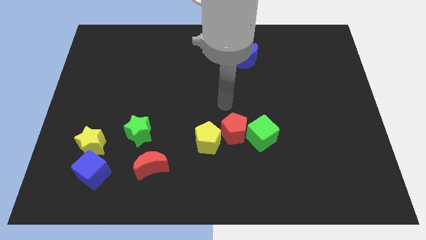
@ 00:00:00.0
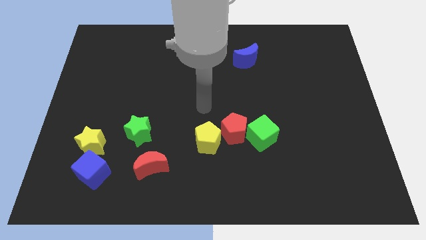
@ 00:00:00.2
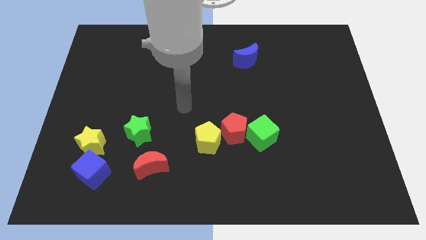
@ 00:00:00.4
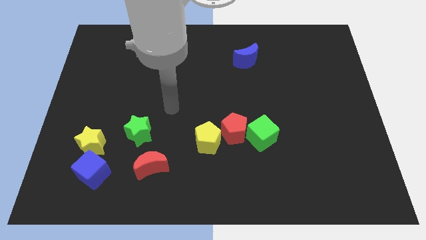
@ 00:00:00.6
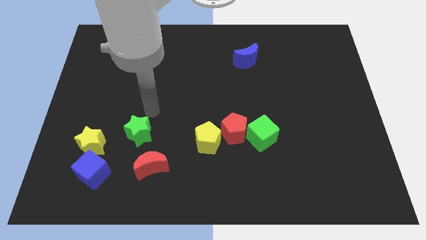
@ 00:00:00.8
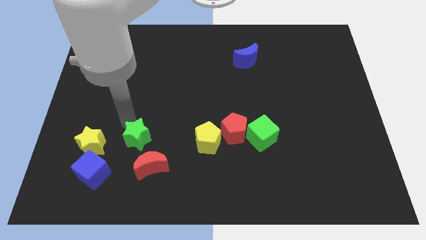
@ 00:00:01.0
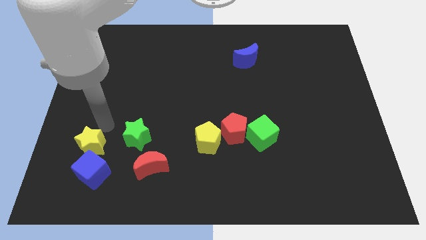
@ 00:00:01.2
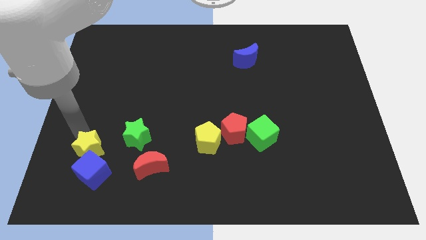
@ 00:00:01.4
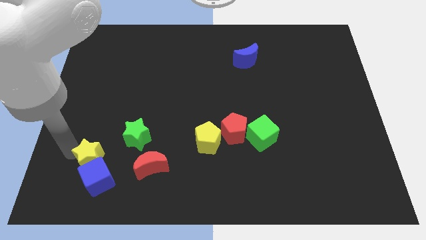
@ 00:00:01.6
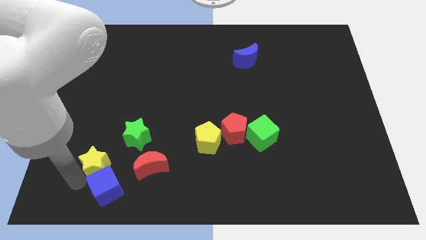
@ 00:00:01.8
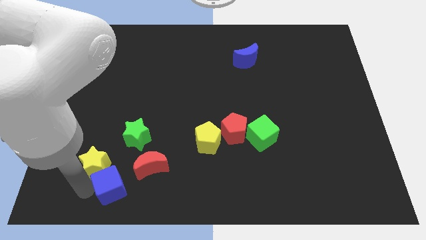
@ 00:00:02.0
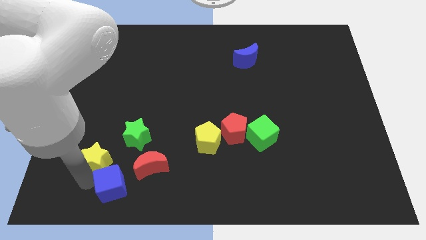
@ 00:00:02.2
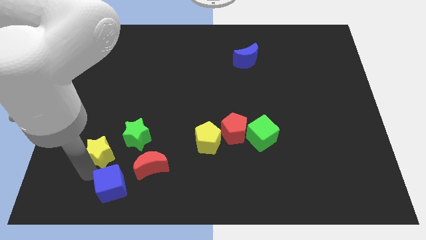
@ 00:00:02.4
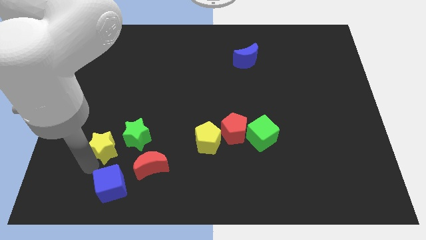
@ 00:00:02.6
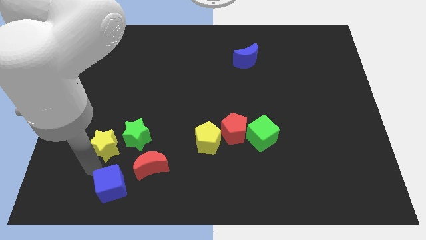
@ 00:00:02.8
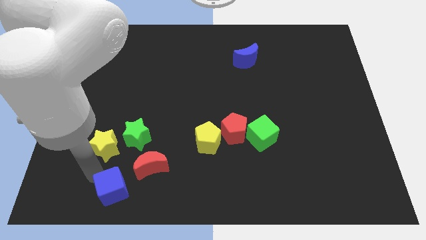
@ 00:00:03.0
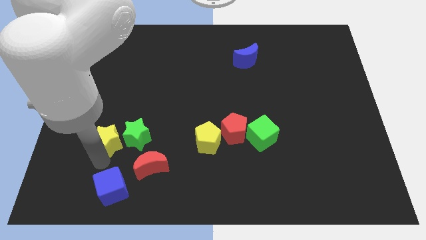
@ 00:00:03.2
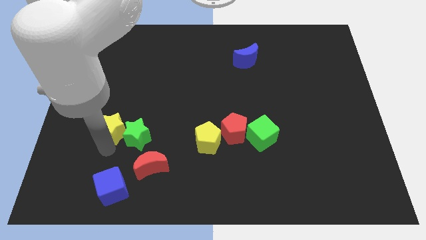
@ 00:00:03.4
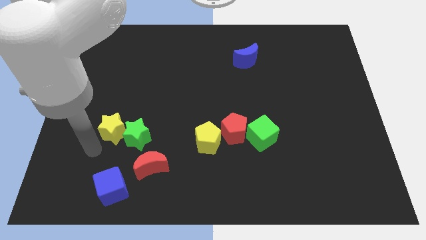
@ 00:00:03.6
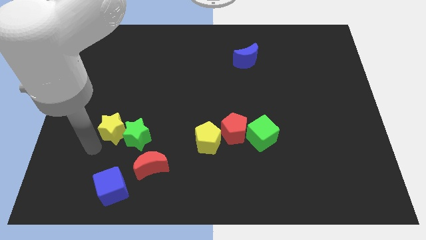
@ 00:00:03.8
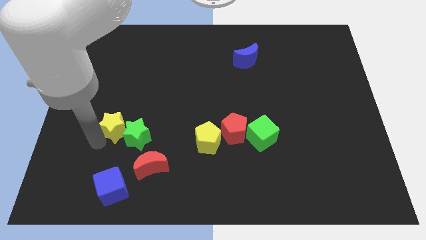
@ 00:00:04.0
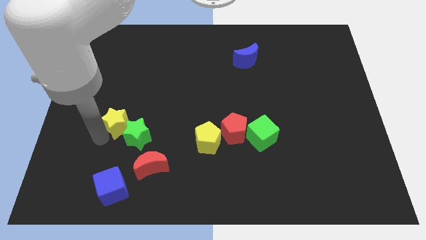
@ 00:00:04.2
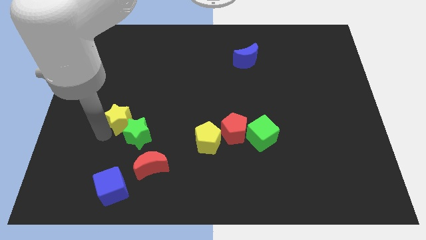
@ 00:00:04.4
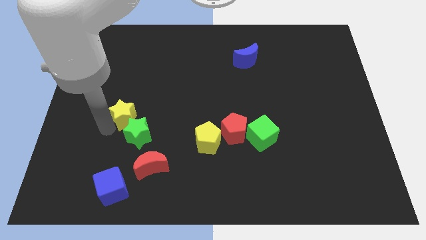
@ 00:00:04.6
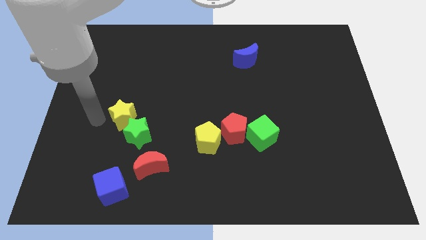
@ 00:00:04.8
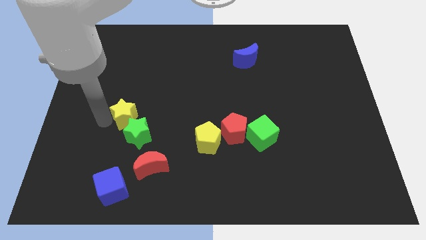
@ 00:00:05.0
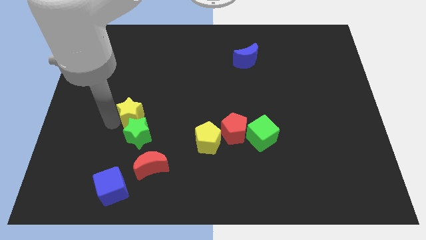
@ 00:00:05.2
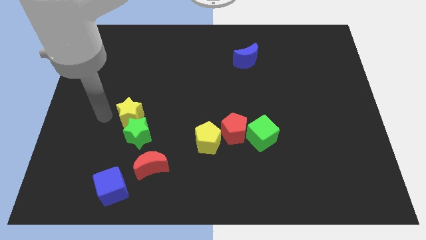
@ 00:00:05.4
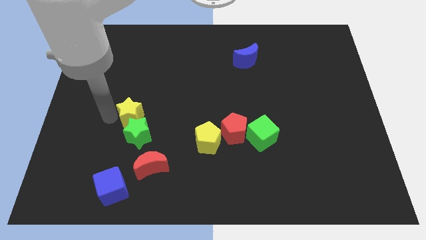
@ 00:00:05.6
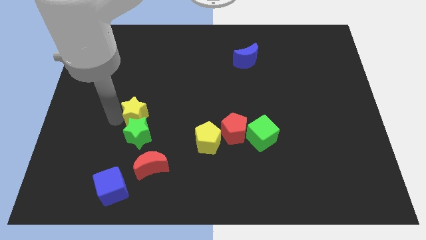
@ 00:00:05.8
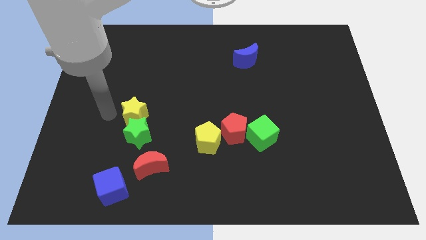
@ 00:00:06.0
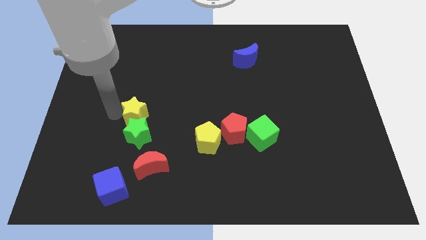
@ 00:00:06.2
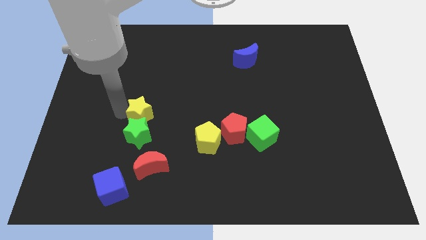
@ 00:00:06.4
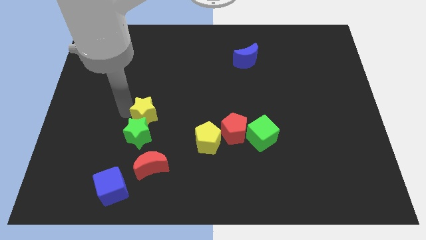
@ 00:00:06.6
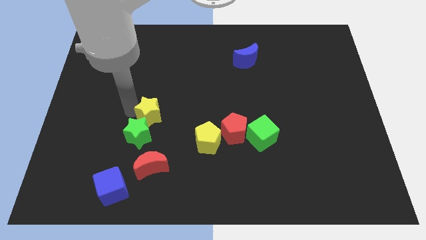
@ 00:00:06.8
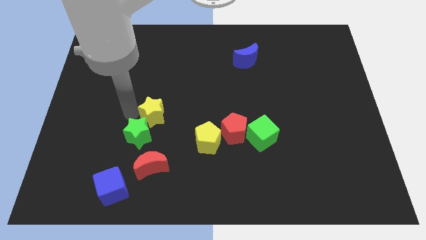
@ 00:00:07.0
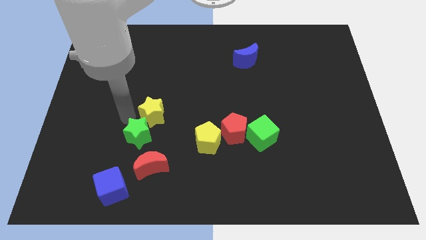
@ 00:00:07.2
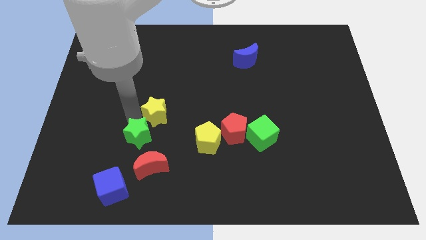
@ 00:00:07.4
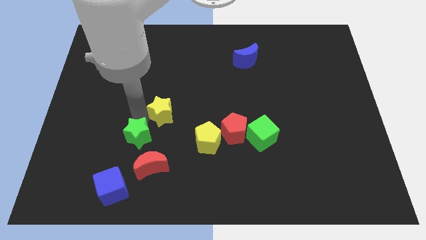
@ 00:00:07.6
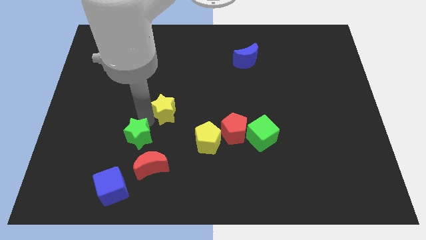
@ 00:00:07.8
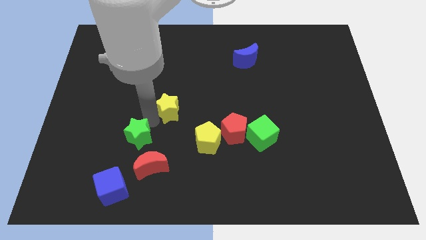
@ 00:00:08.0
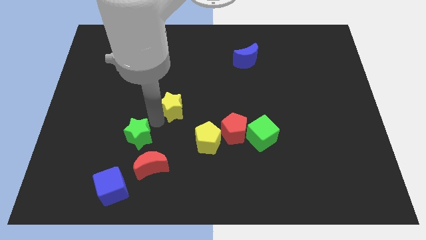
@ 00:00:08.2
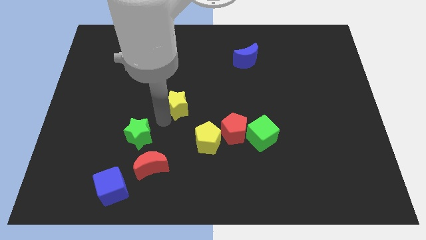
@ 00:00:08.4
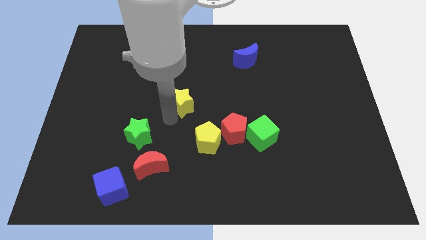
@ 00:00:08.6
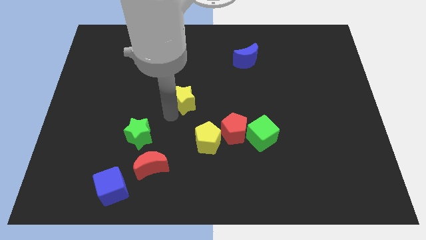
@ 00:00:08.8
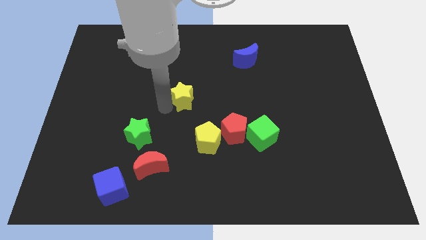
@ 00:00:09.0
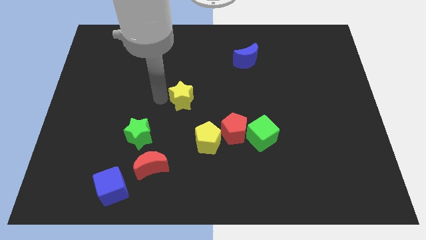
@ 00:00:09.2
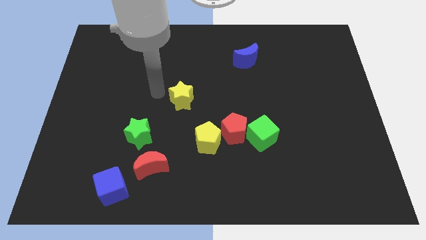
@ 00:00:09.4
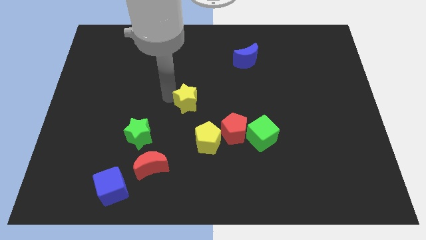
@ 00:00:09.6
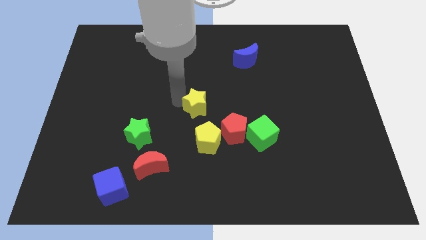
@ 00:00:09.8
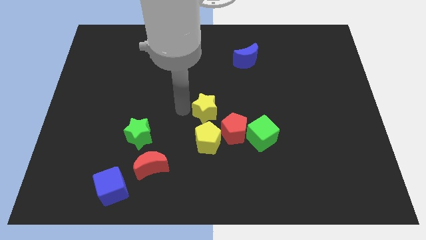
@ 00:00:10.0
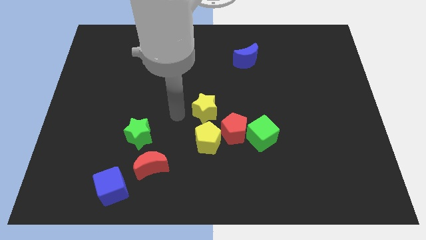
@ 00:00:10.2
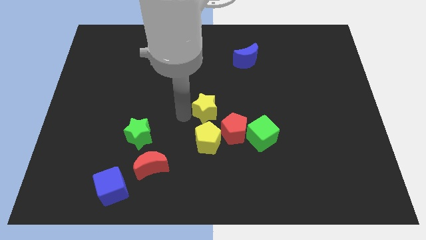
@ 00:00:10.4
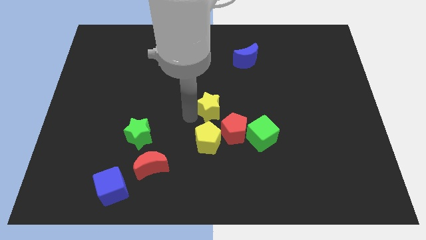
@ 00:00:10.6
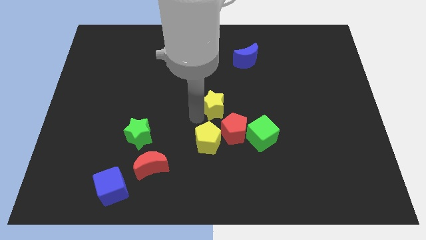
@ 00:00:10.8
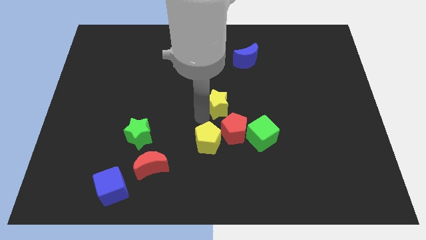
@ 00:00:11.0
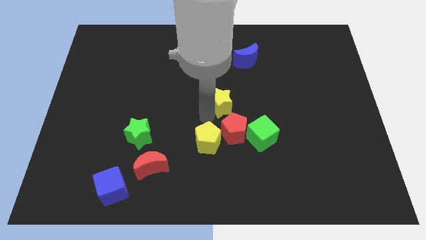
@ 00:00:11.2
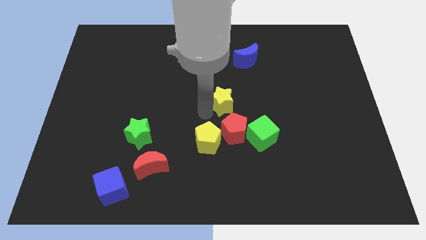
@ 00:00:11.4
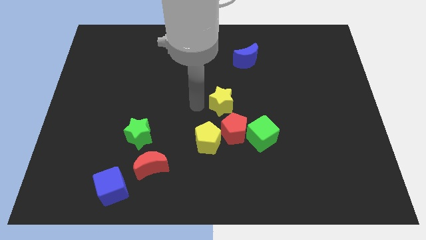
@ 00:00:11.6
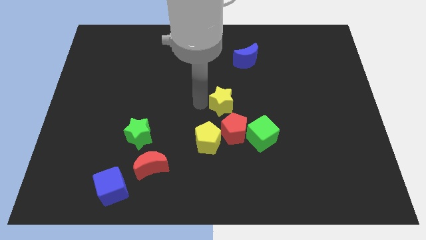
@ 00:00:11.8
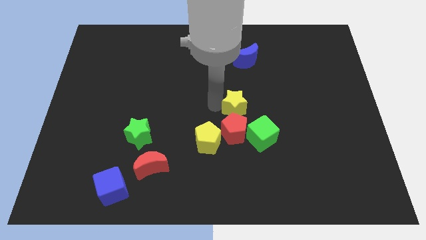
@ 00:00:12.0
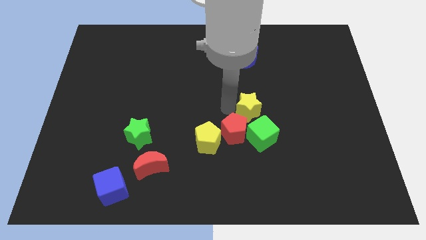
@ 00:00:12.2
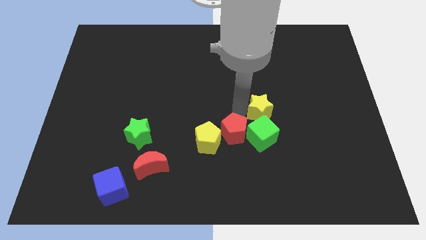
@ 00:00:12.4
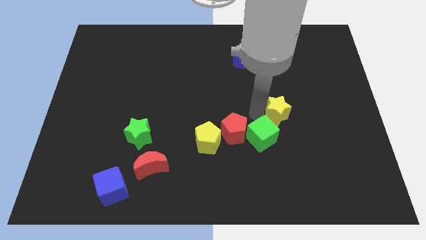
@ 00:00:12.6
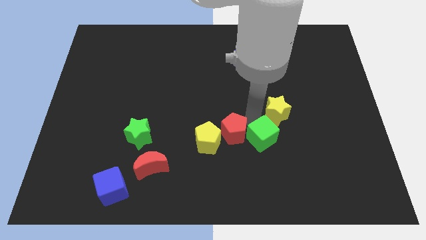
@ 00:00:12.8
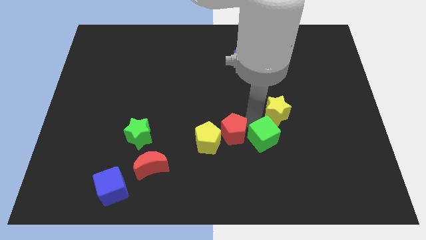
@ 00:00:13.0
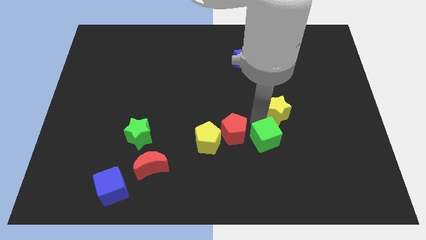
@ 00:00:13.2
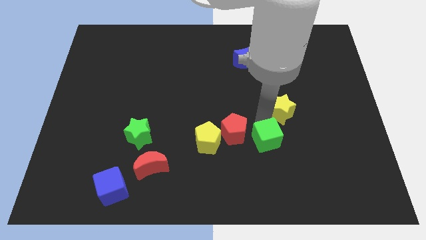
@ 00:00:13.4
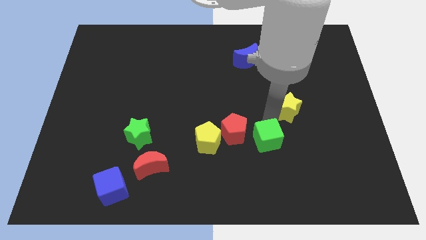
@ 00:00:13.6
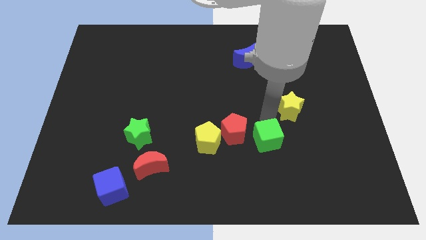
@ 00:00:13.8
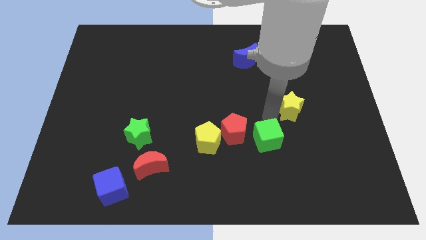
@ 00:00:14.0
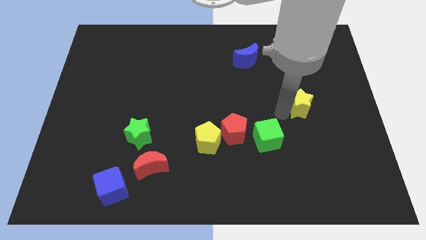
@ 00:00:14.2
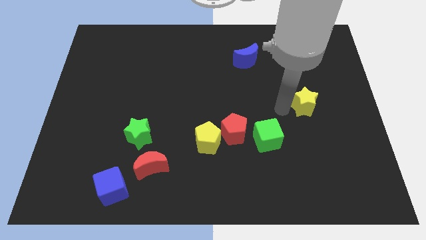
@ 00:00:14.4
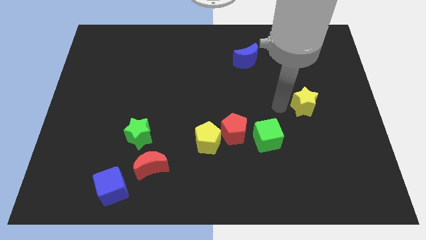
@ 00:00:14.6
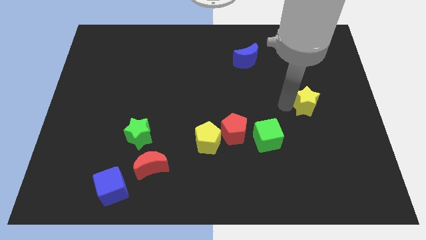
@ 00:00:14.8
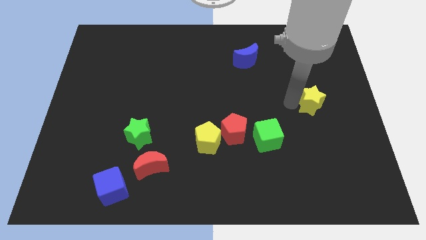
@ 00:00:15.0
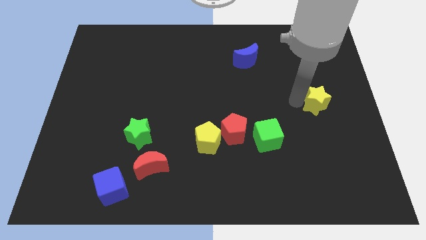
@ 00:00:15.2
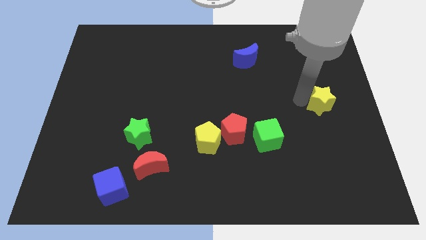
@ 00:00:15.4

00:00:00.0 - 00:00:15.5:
push the yellow star to the right side of the board
